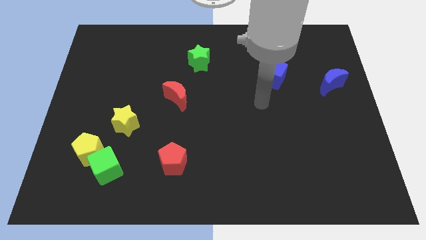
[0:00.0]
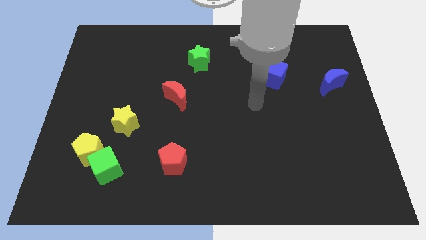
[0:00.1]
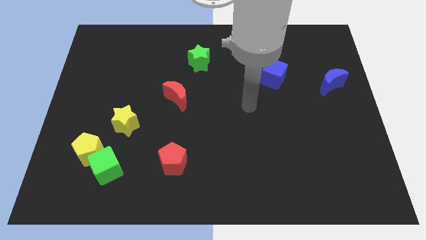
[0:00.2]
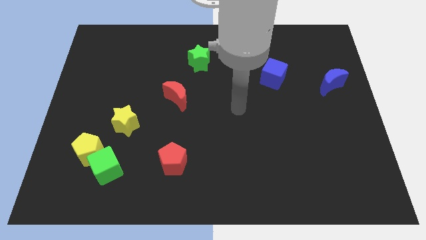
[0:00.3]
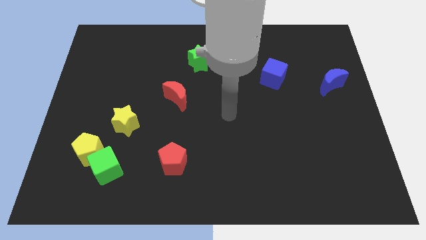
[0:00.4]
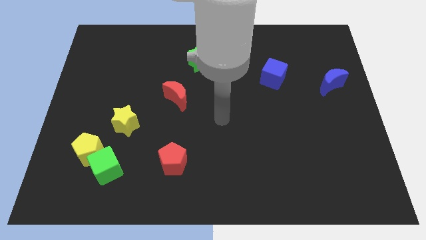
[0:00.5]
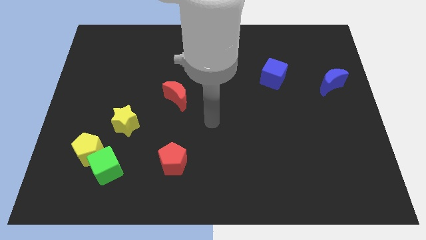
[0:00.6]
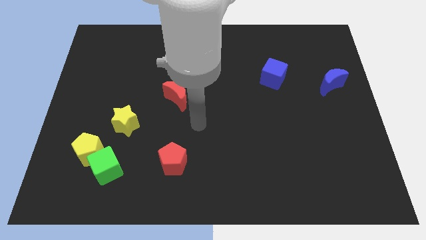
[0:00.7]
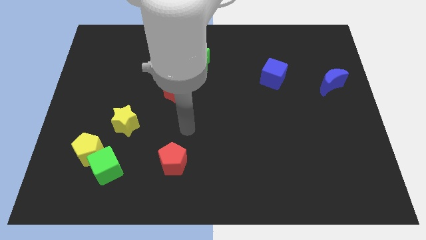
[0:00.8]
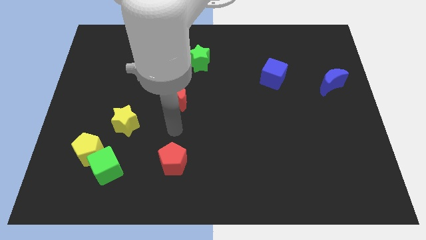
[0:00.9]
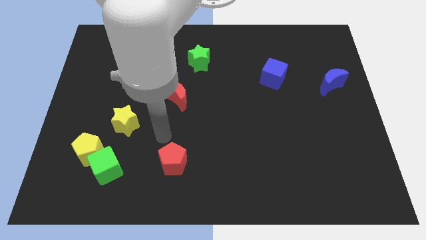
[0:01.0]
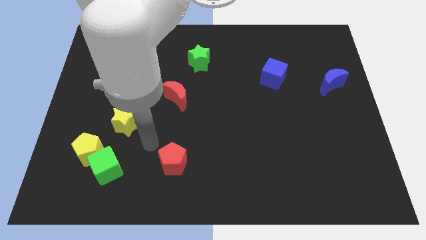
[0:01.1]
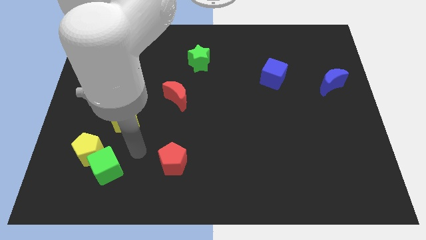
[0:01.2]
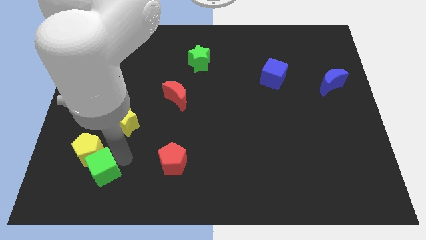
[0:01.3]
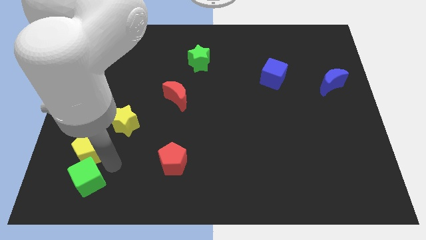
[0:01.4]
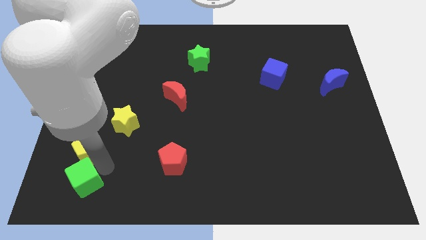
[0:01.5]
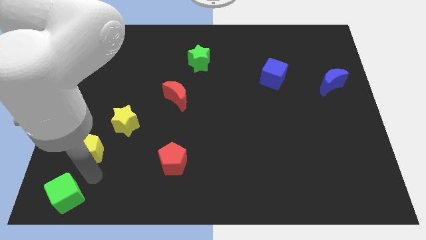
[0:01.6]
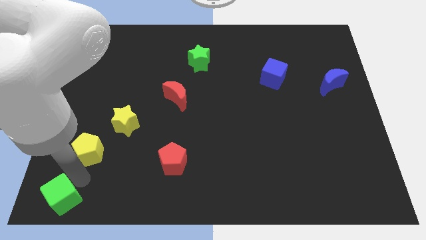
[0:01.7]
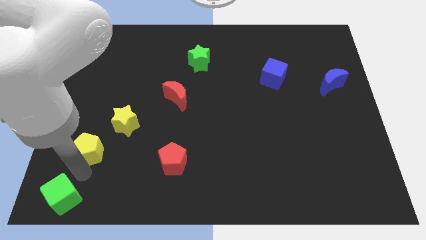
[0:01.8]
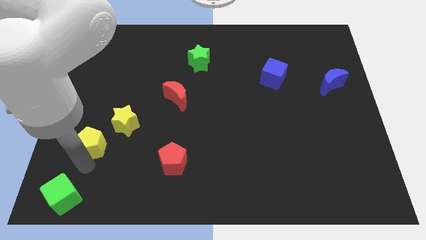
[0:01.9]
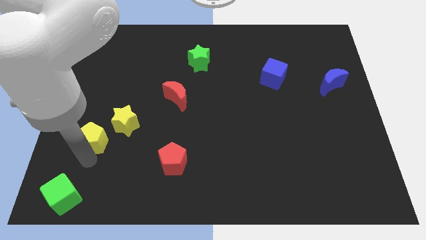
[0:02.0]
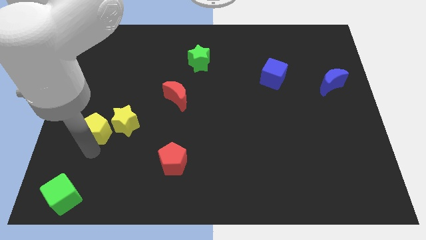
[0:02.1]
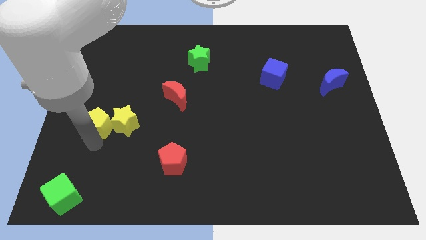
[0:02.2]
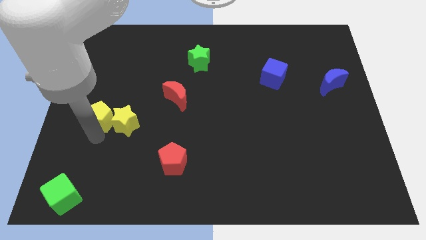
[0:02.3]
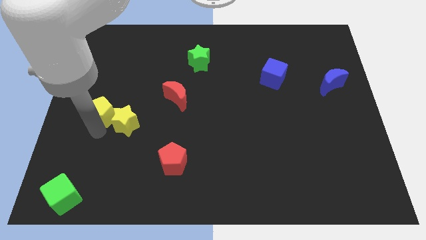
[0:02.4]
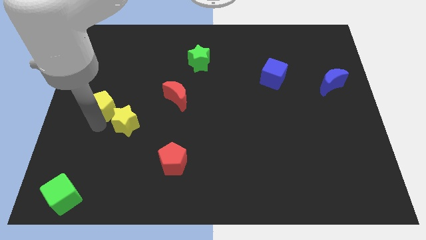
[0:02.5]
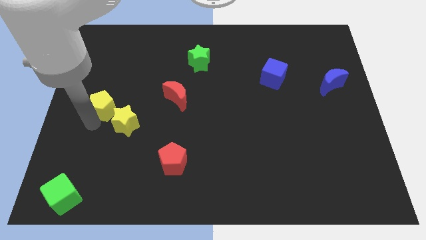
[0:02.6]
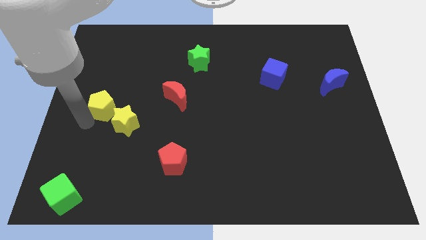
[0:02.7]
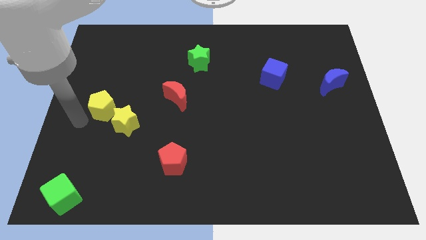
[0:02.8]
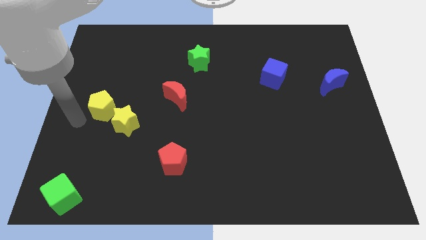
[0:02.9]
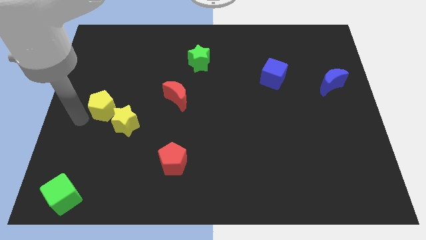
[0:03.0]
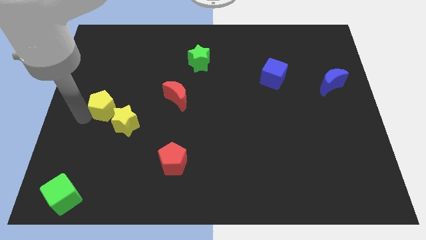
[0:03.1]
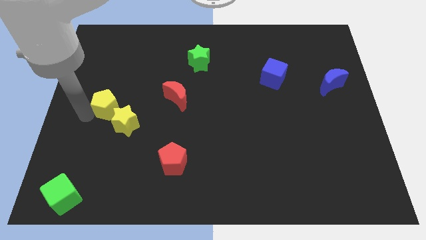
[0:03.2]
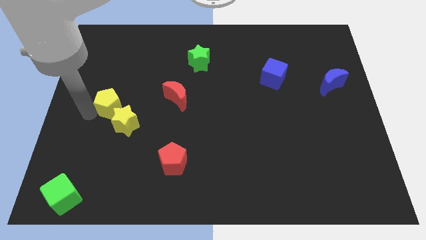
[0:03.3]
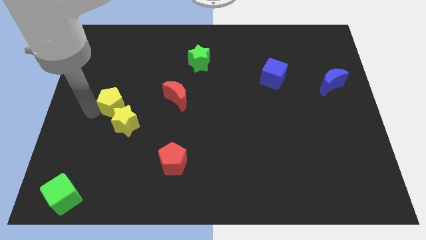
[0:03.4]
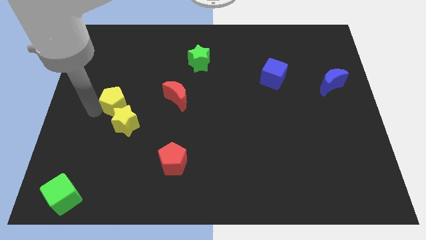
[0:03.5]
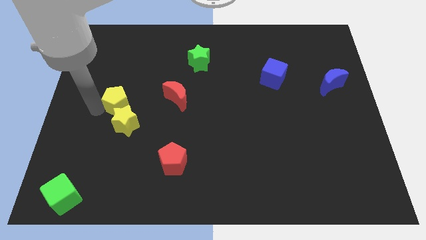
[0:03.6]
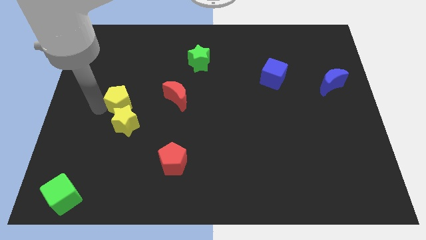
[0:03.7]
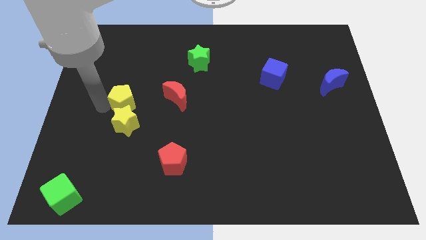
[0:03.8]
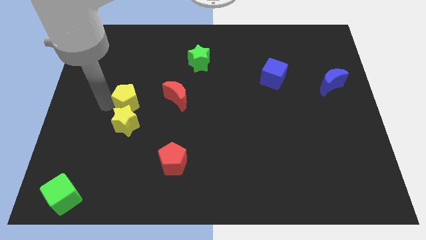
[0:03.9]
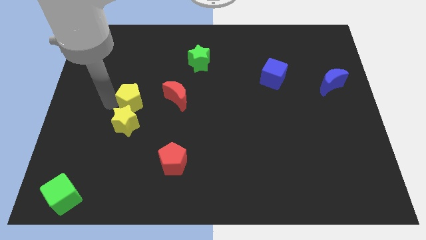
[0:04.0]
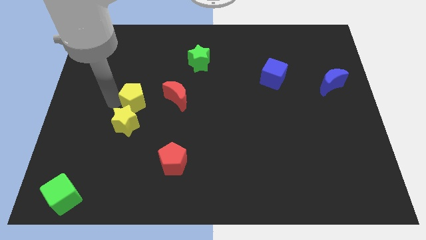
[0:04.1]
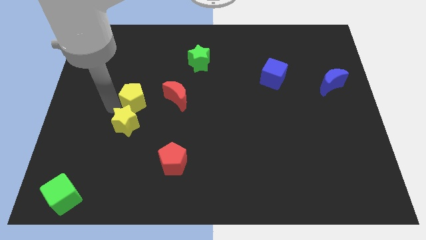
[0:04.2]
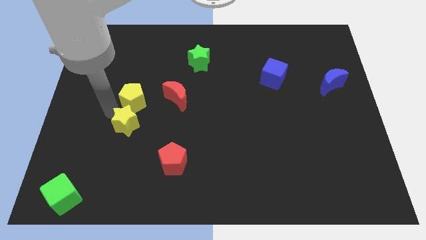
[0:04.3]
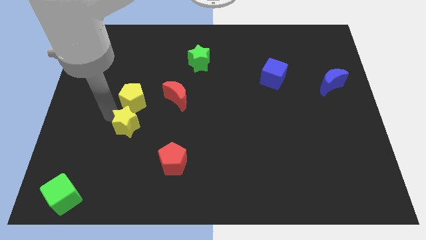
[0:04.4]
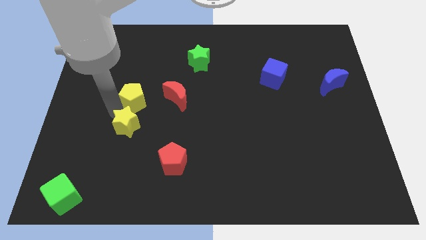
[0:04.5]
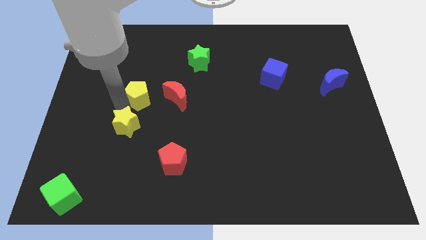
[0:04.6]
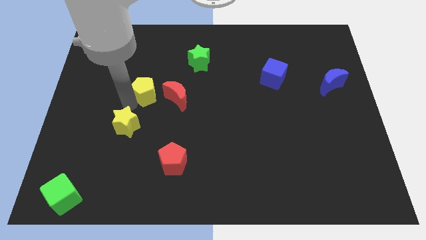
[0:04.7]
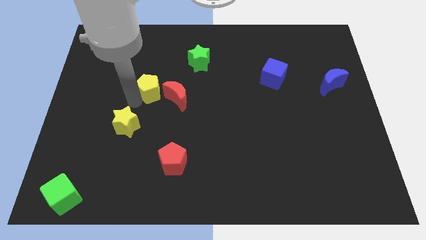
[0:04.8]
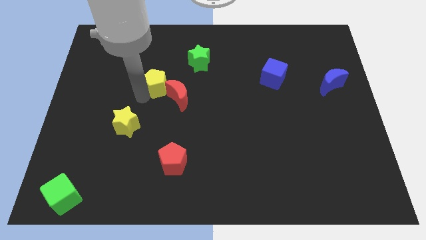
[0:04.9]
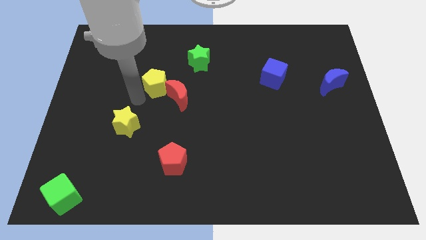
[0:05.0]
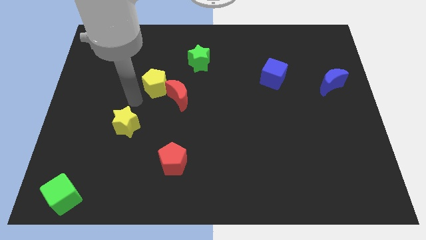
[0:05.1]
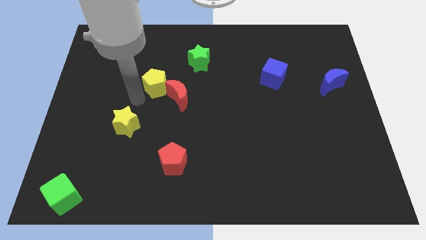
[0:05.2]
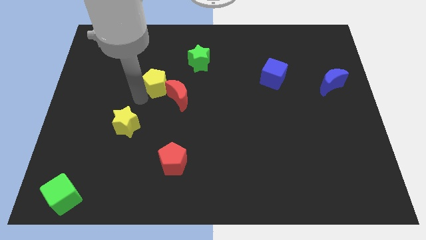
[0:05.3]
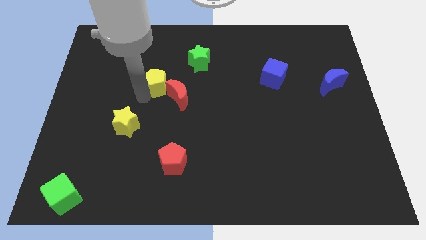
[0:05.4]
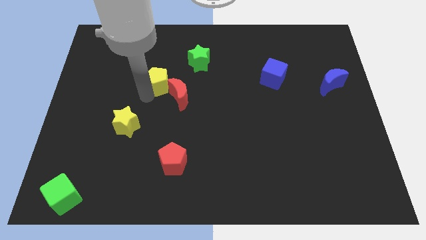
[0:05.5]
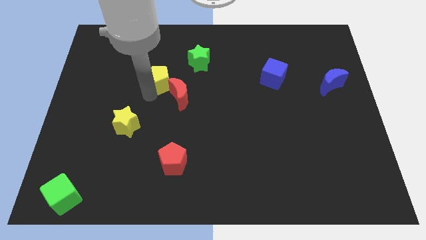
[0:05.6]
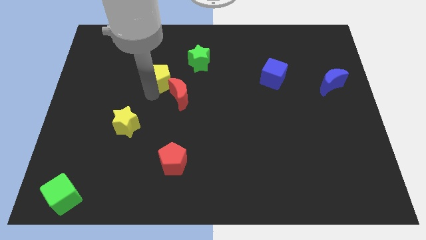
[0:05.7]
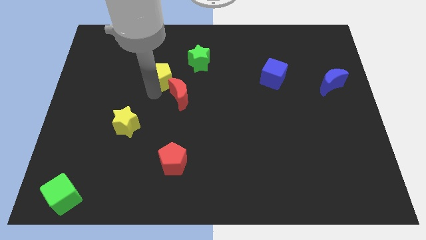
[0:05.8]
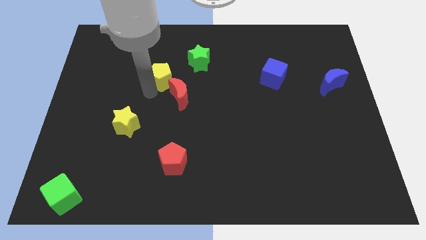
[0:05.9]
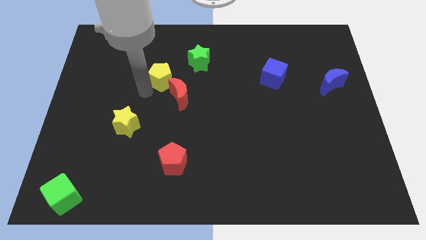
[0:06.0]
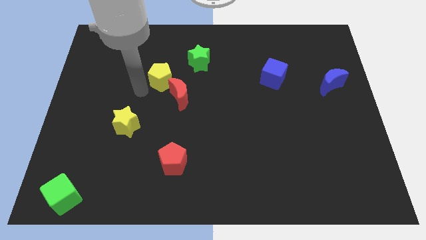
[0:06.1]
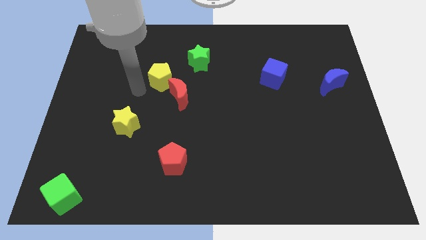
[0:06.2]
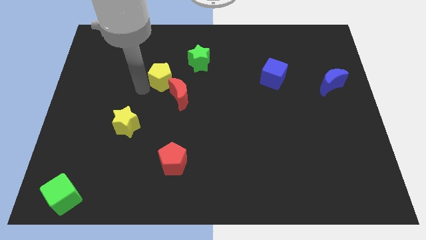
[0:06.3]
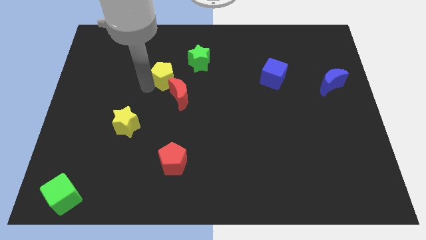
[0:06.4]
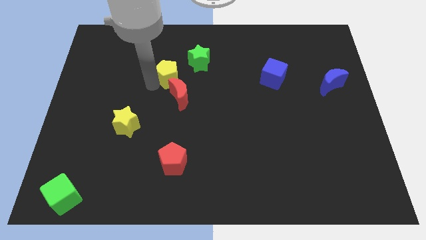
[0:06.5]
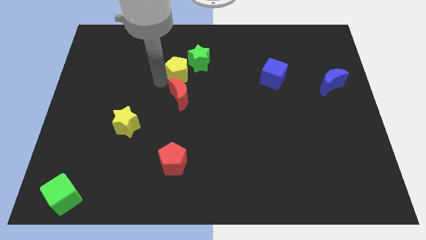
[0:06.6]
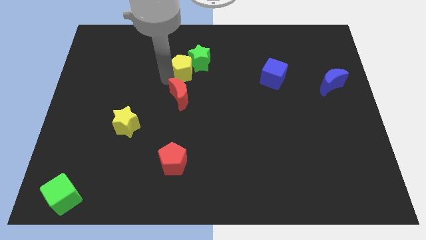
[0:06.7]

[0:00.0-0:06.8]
slide the yellow pentagon next to the green star

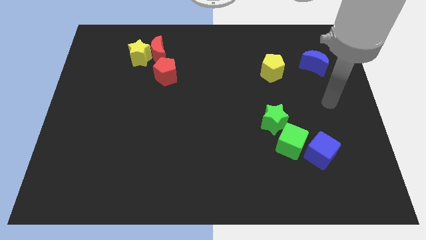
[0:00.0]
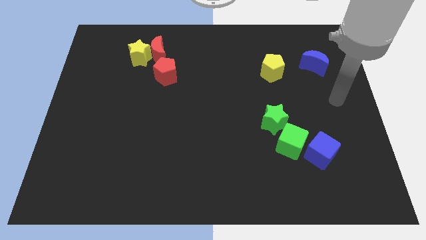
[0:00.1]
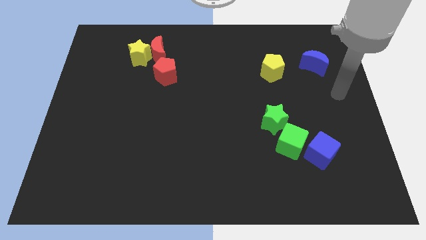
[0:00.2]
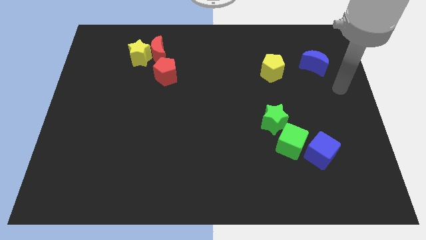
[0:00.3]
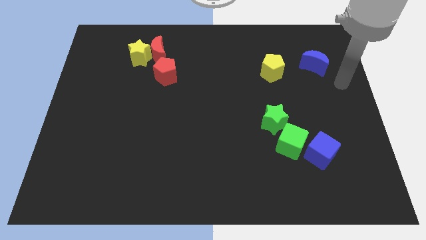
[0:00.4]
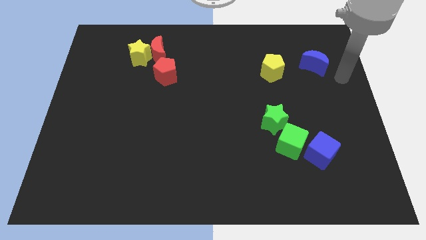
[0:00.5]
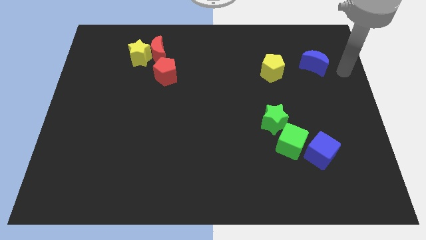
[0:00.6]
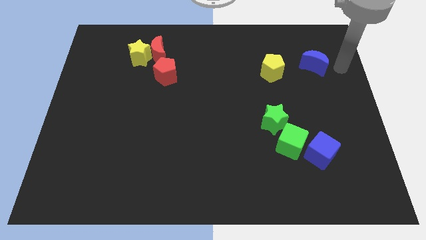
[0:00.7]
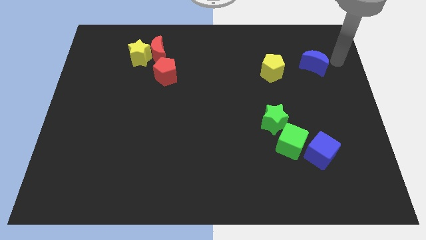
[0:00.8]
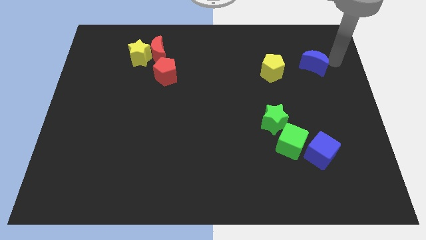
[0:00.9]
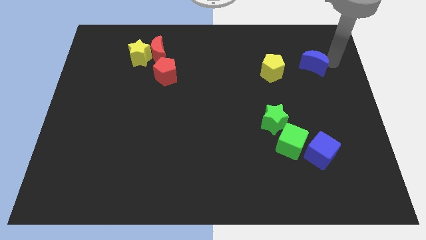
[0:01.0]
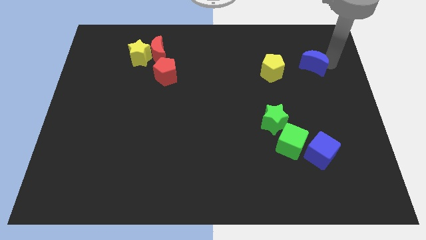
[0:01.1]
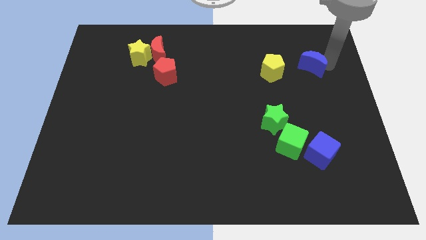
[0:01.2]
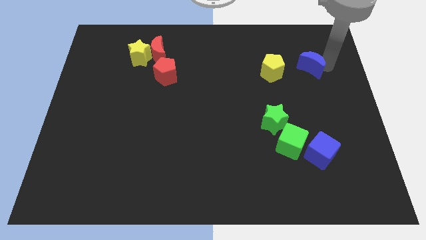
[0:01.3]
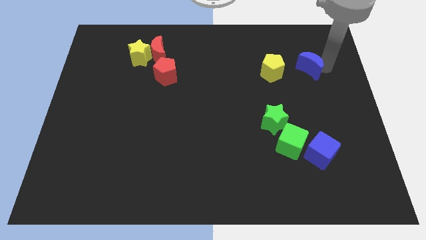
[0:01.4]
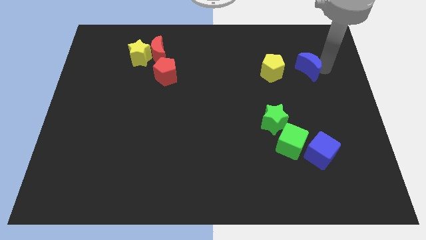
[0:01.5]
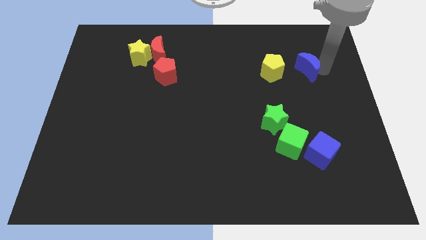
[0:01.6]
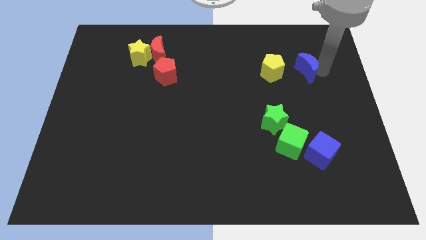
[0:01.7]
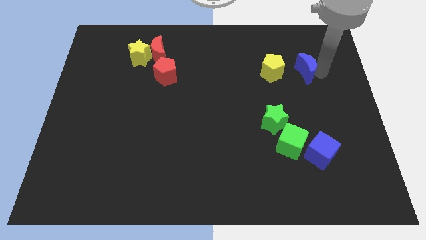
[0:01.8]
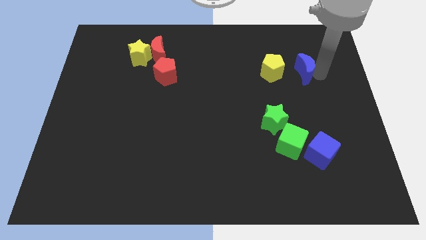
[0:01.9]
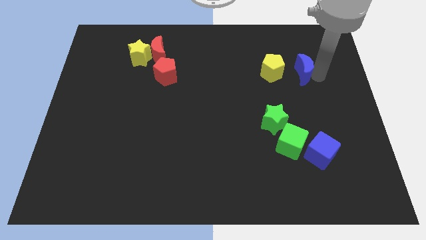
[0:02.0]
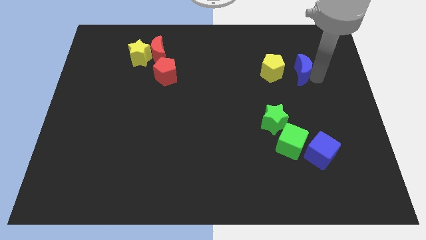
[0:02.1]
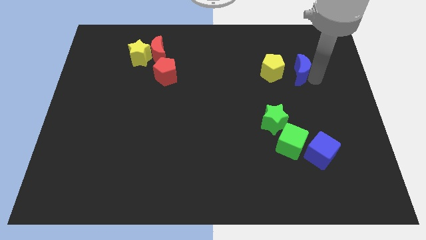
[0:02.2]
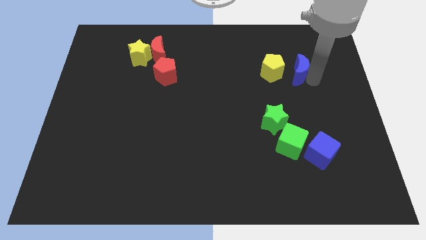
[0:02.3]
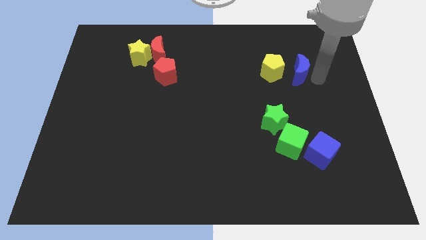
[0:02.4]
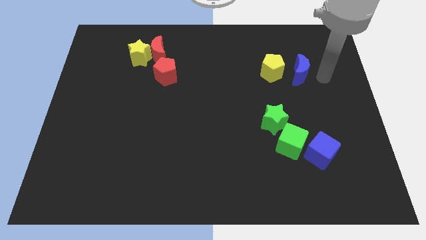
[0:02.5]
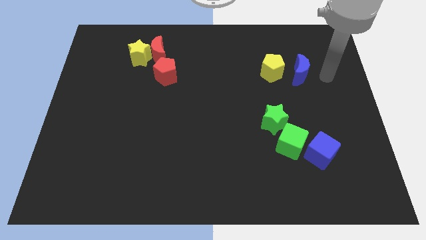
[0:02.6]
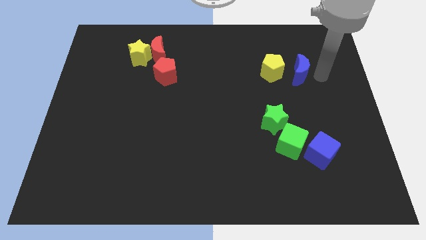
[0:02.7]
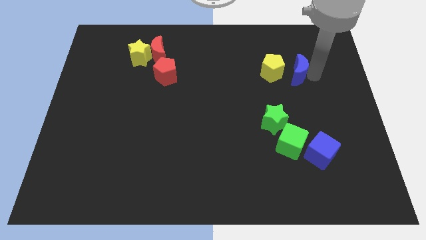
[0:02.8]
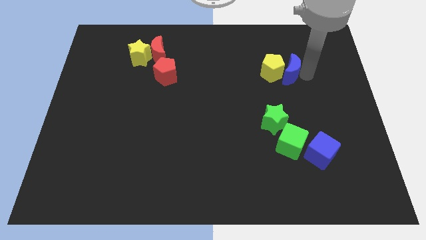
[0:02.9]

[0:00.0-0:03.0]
push the blue moon towards the yellow pentagon
